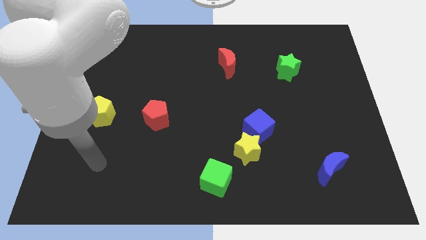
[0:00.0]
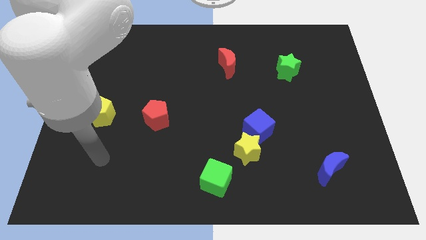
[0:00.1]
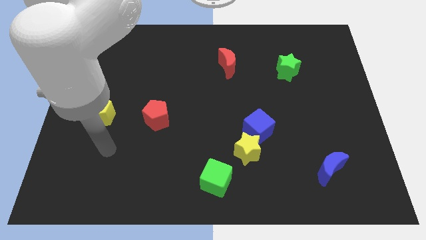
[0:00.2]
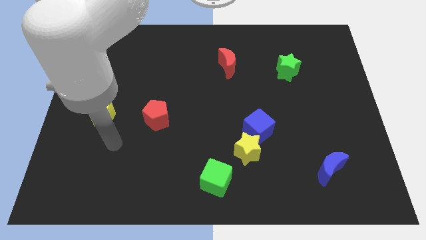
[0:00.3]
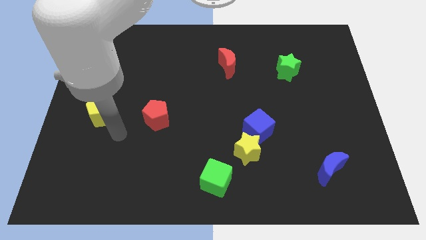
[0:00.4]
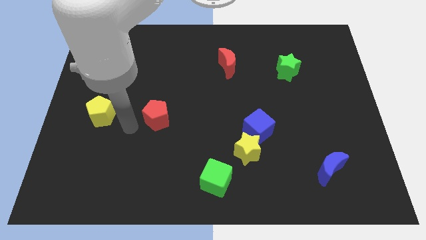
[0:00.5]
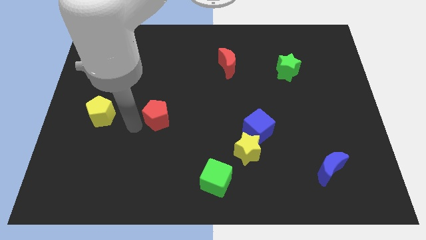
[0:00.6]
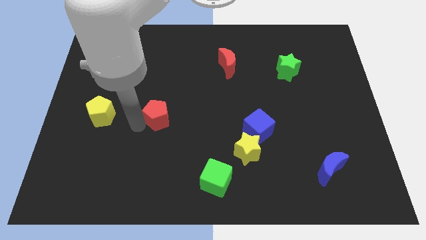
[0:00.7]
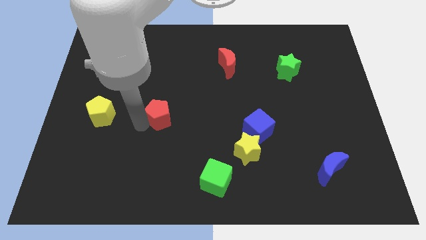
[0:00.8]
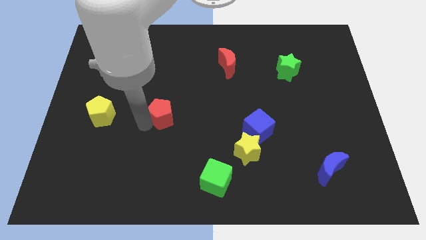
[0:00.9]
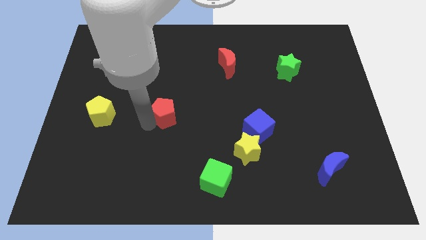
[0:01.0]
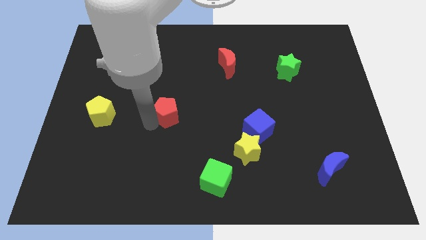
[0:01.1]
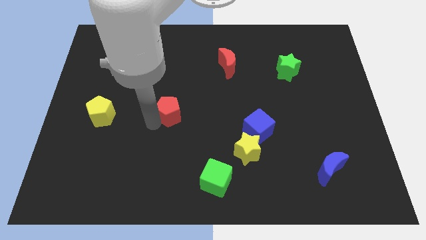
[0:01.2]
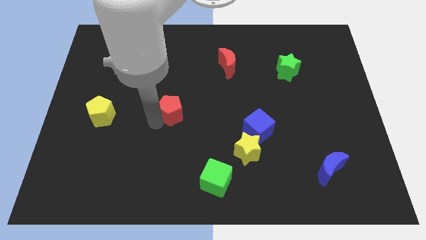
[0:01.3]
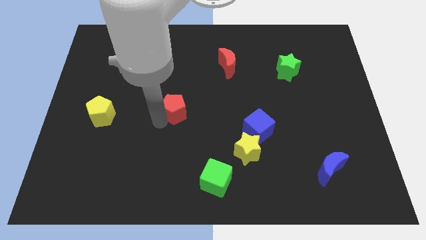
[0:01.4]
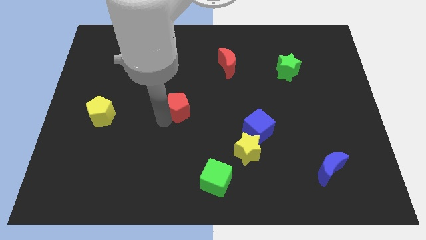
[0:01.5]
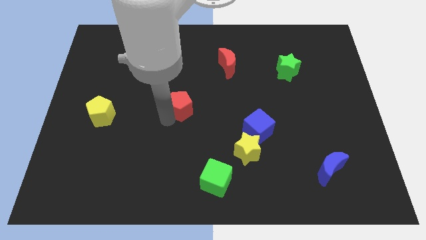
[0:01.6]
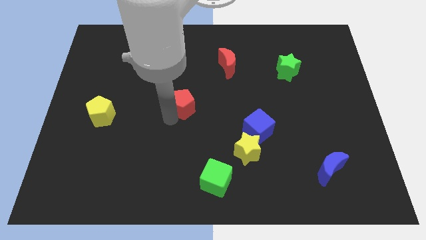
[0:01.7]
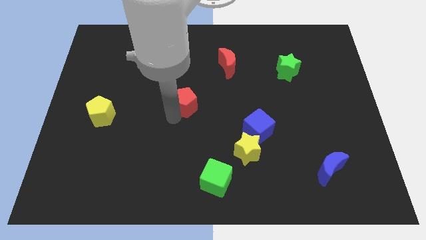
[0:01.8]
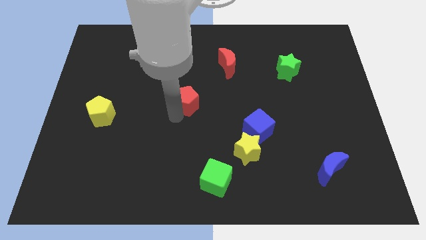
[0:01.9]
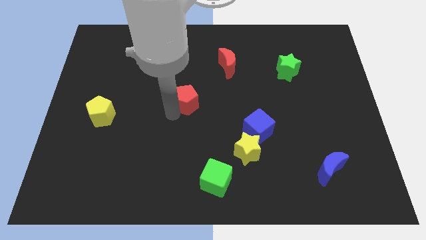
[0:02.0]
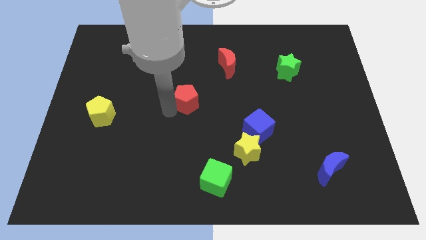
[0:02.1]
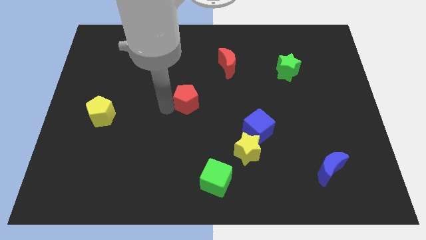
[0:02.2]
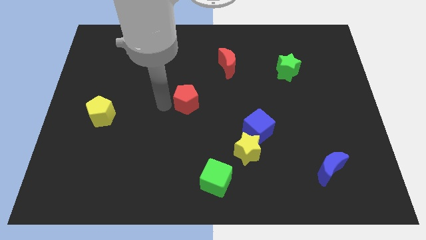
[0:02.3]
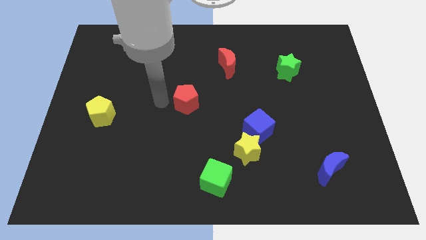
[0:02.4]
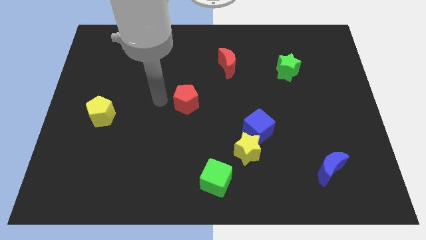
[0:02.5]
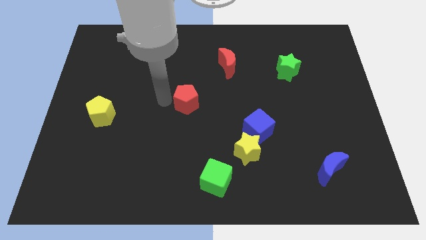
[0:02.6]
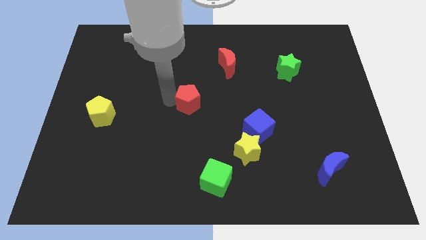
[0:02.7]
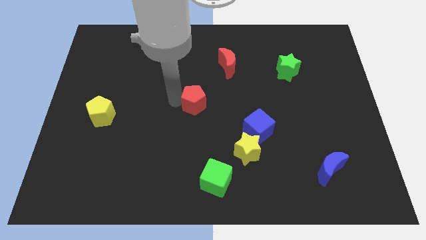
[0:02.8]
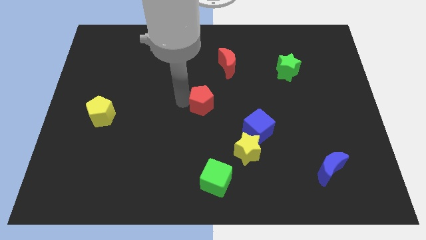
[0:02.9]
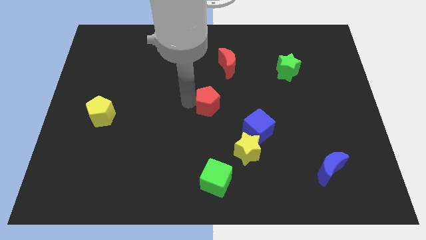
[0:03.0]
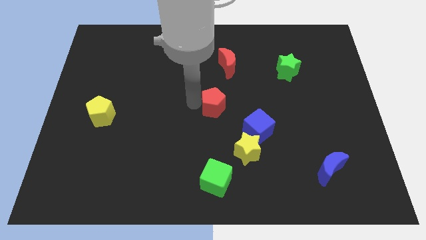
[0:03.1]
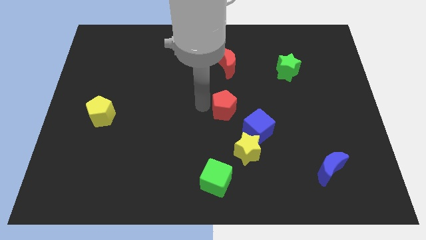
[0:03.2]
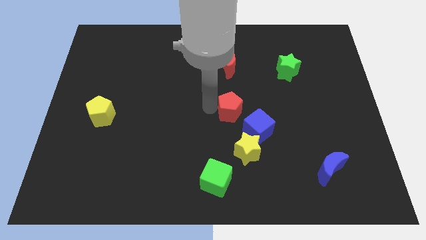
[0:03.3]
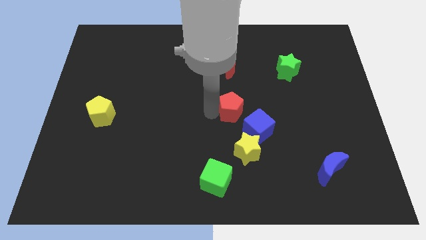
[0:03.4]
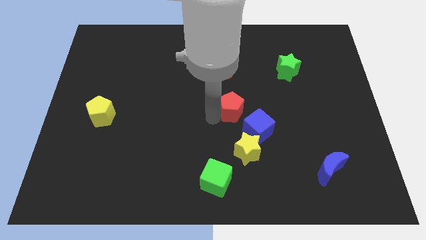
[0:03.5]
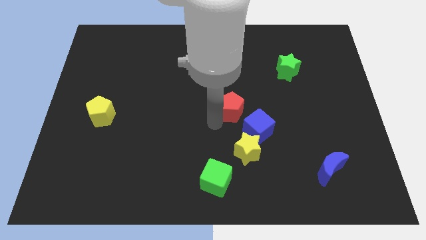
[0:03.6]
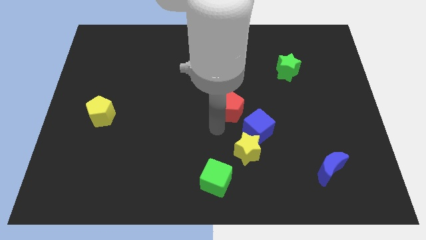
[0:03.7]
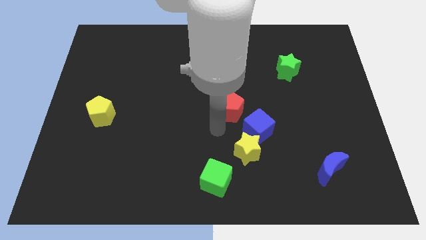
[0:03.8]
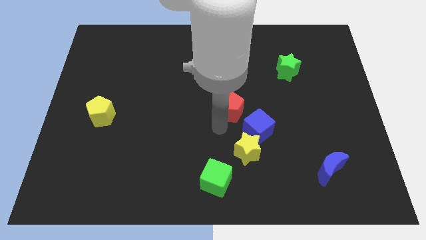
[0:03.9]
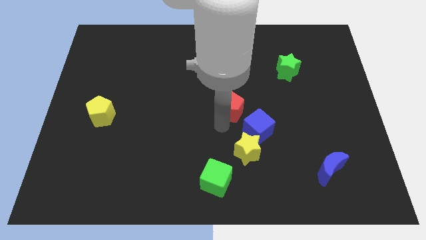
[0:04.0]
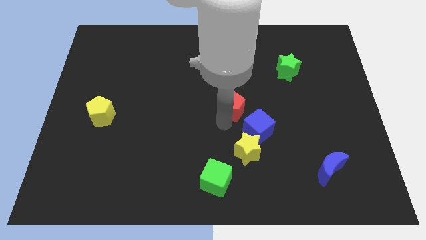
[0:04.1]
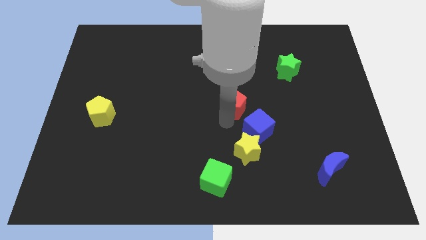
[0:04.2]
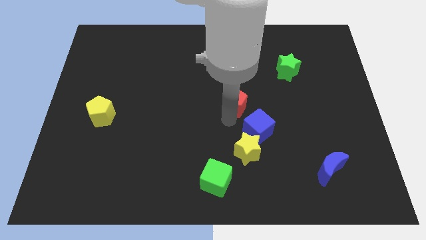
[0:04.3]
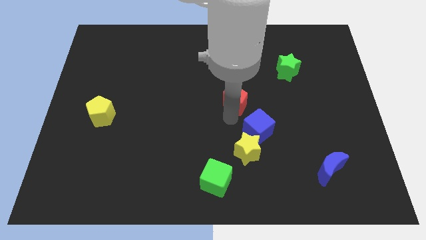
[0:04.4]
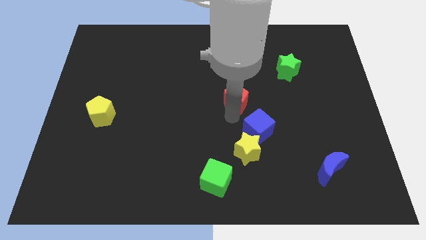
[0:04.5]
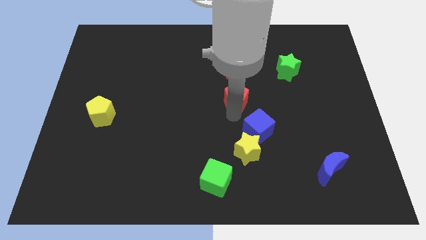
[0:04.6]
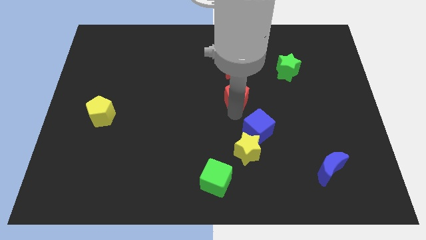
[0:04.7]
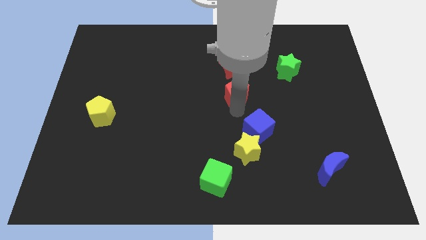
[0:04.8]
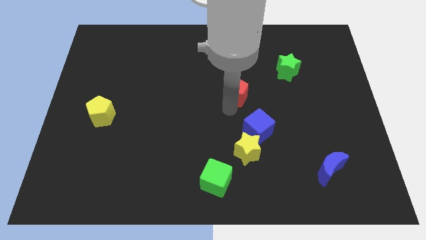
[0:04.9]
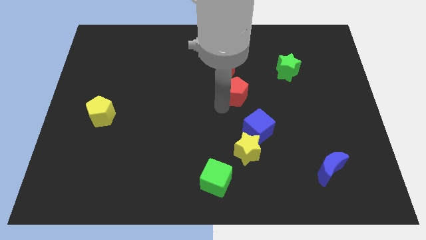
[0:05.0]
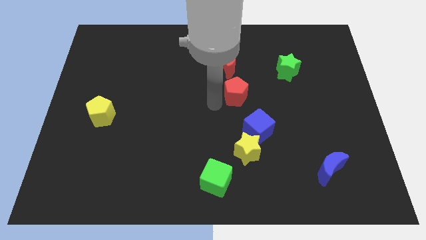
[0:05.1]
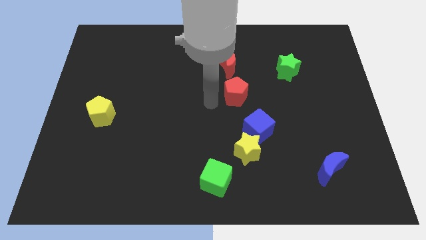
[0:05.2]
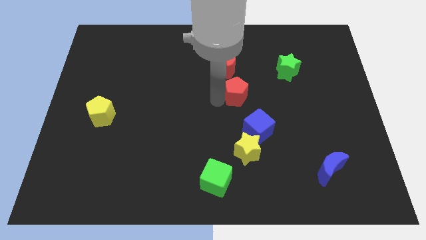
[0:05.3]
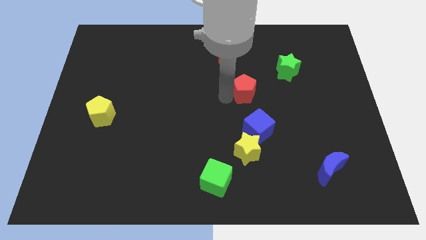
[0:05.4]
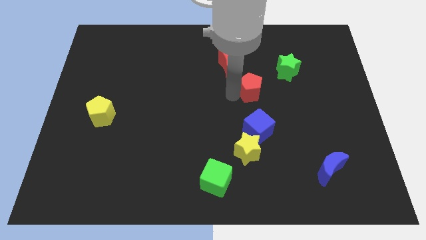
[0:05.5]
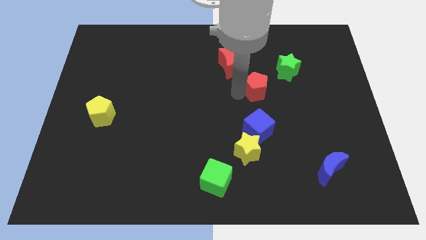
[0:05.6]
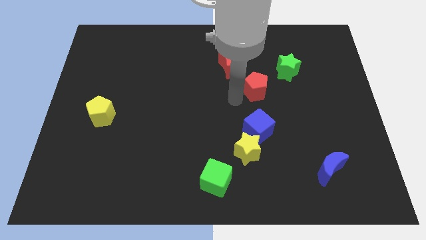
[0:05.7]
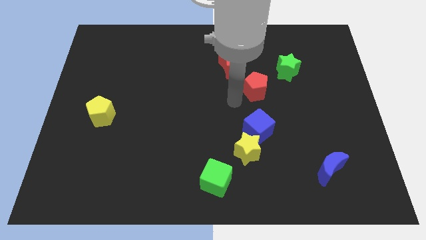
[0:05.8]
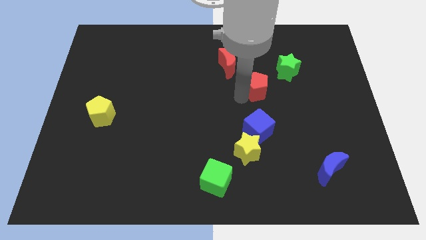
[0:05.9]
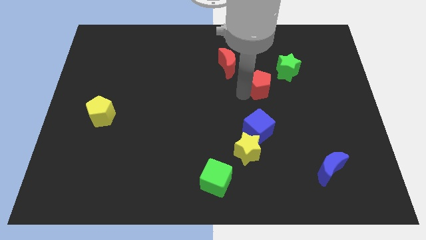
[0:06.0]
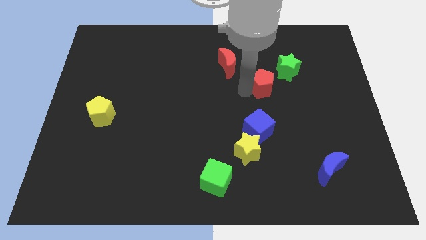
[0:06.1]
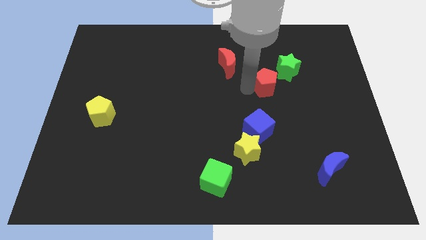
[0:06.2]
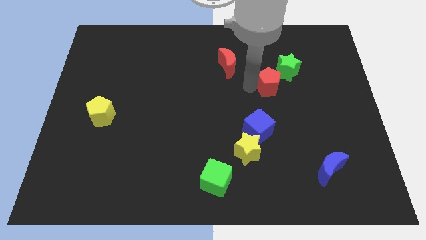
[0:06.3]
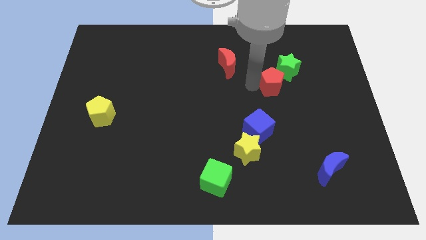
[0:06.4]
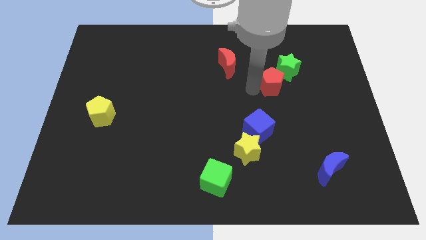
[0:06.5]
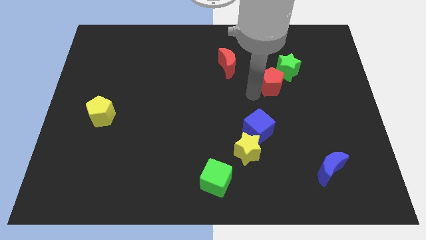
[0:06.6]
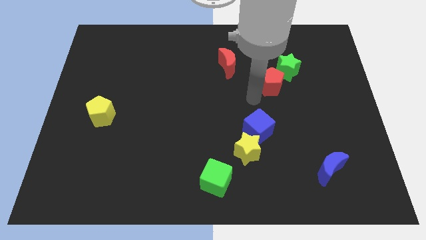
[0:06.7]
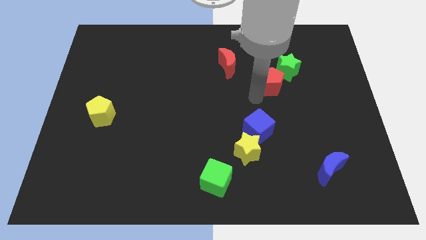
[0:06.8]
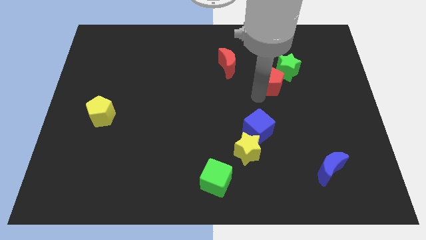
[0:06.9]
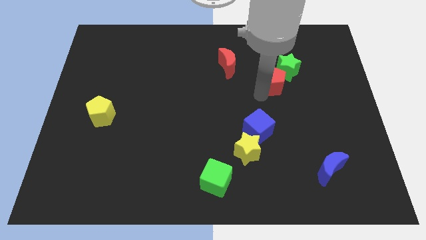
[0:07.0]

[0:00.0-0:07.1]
put the red pentagon close to the green star
